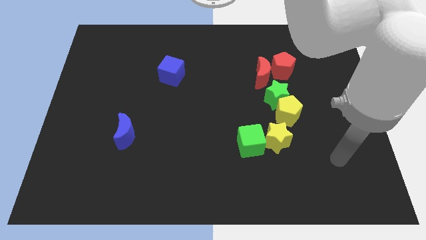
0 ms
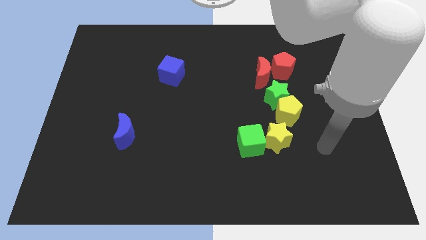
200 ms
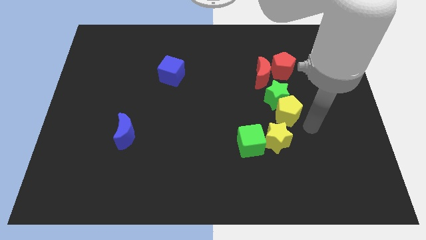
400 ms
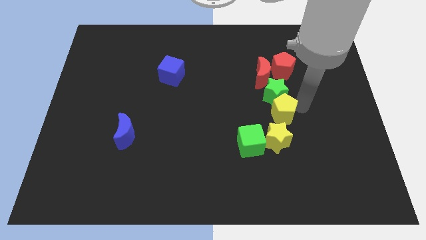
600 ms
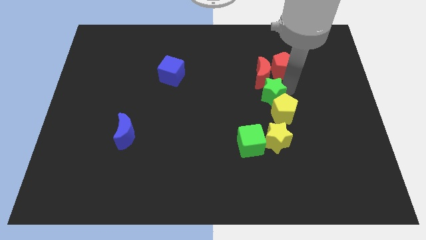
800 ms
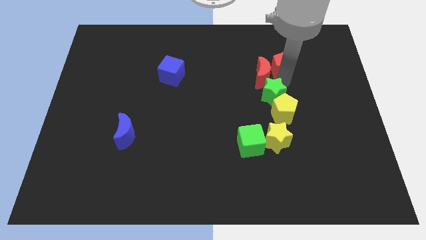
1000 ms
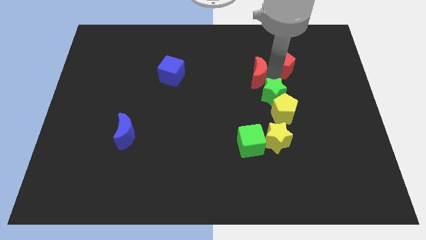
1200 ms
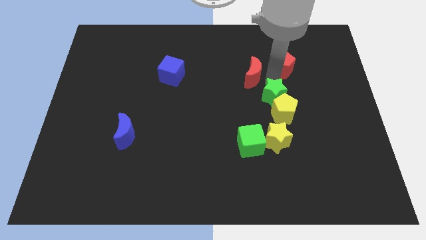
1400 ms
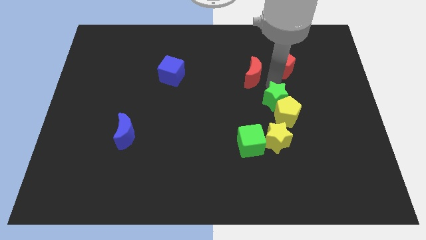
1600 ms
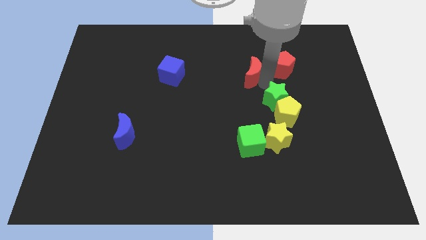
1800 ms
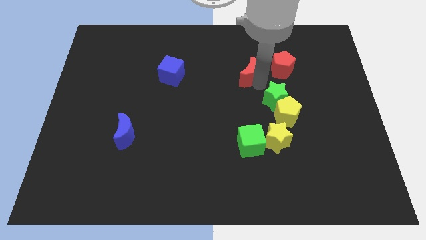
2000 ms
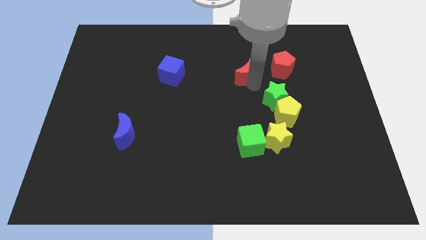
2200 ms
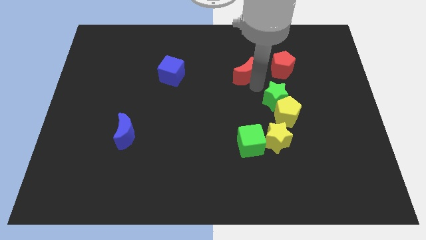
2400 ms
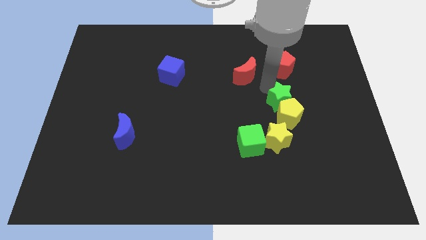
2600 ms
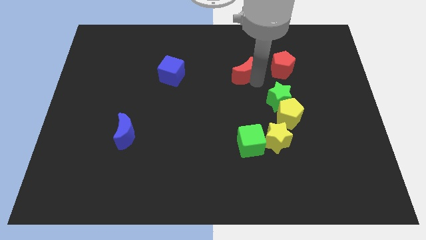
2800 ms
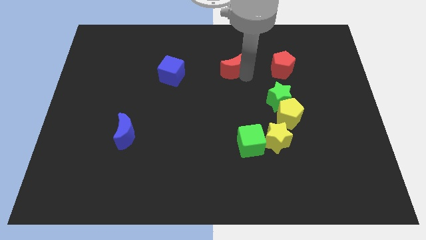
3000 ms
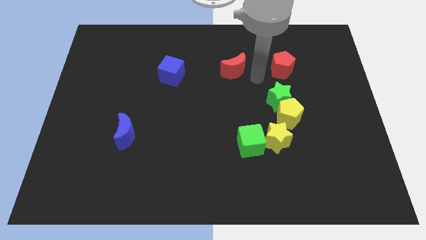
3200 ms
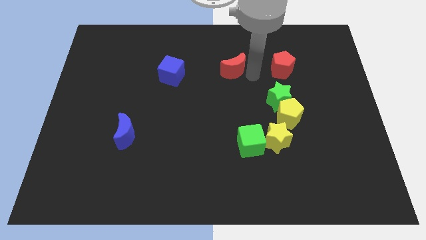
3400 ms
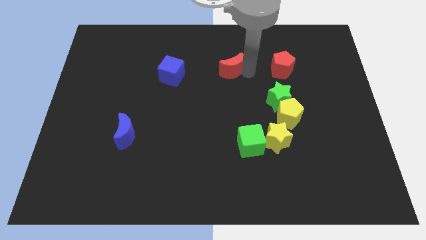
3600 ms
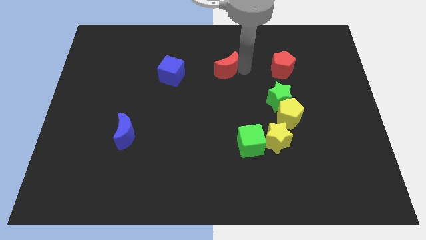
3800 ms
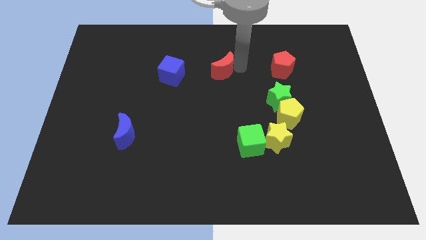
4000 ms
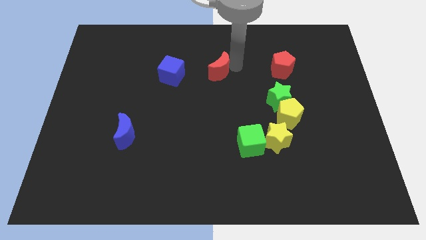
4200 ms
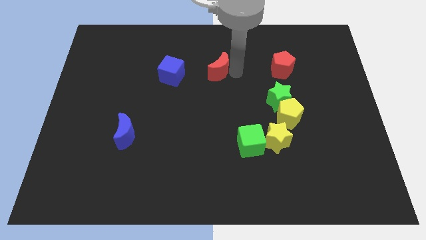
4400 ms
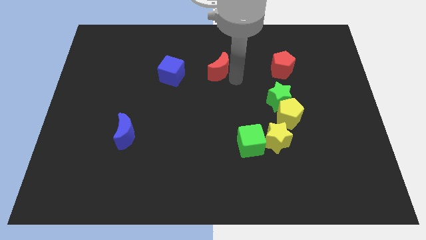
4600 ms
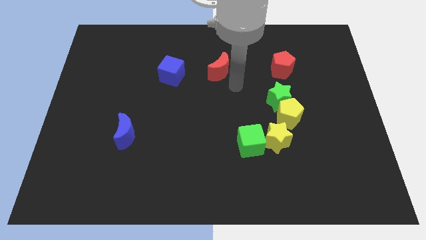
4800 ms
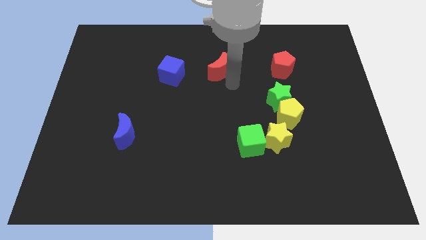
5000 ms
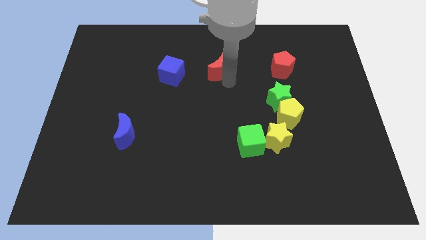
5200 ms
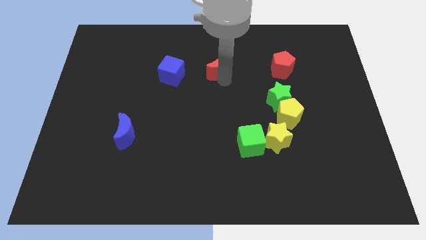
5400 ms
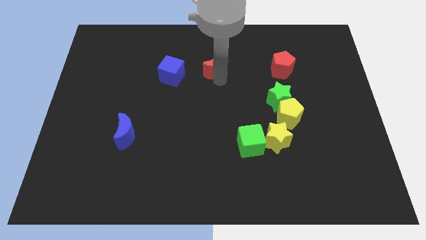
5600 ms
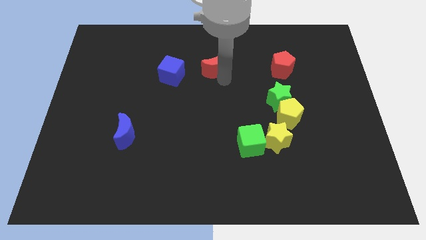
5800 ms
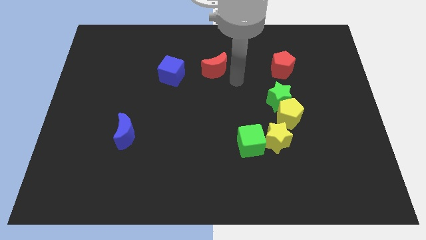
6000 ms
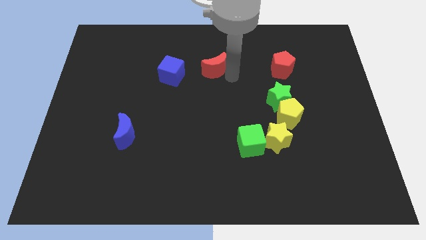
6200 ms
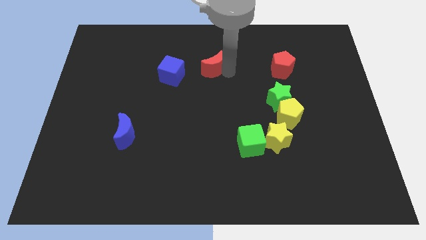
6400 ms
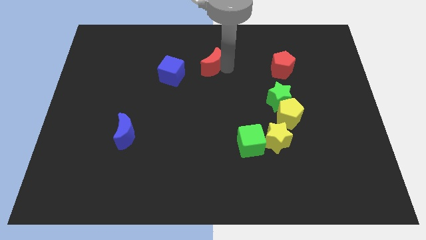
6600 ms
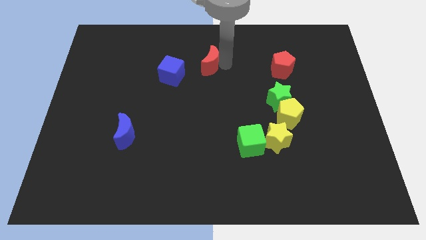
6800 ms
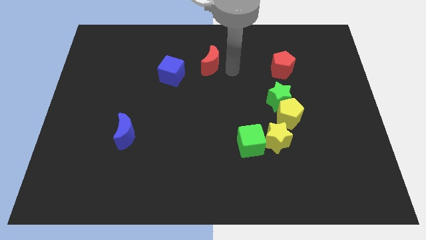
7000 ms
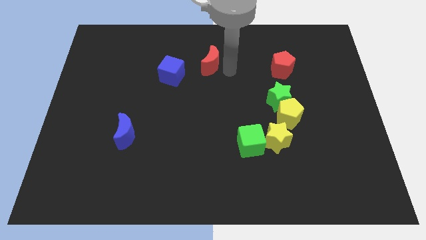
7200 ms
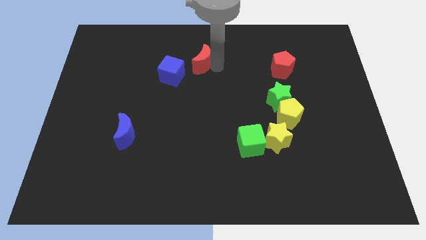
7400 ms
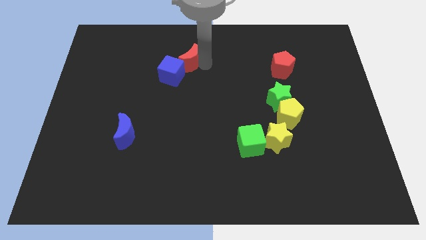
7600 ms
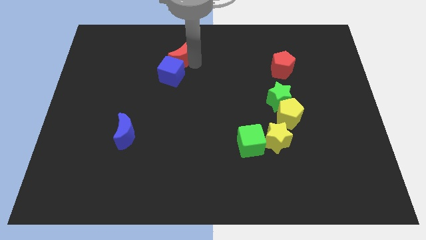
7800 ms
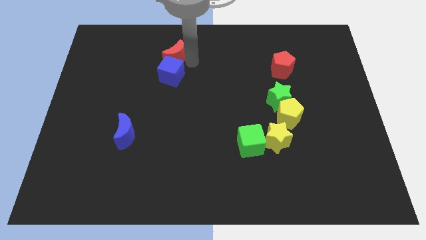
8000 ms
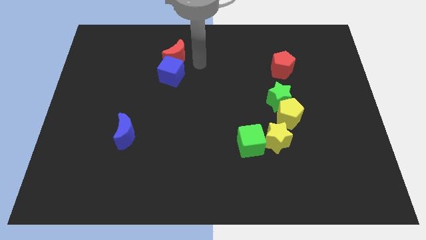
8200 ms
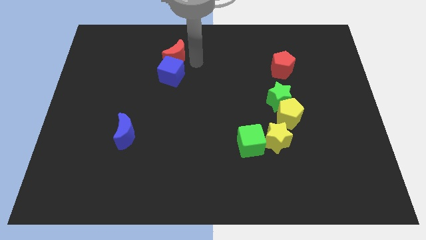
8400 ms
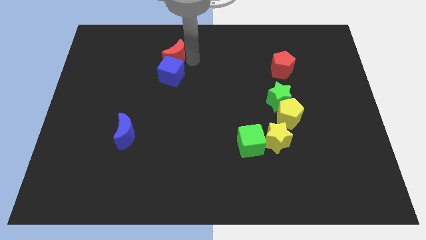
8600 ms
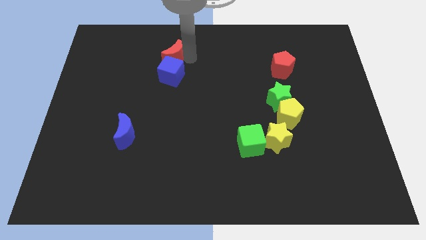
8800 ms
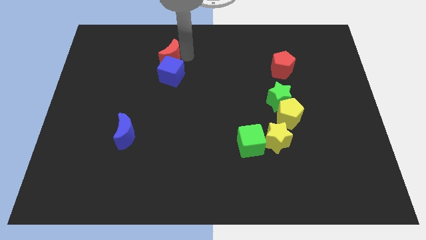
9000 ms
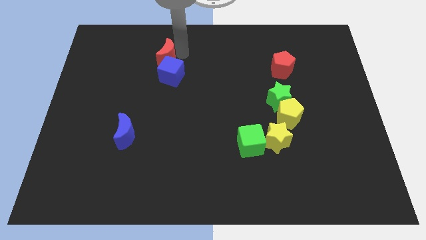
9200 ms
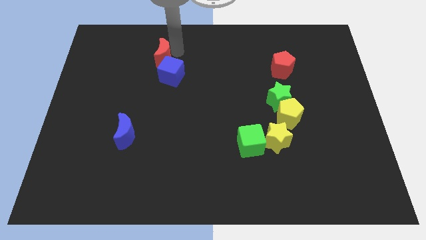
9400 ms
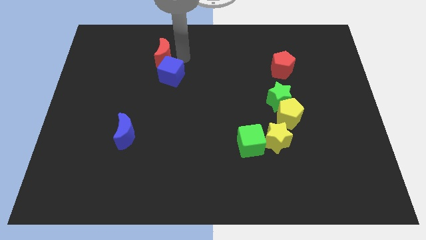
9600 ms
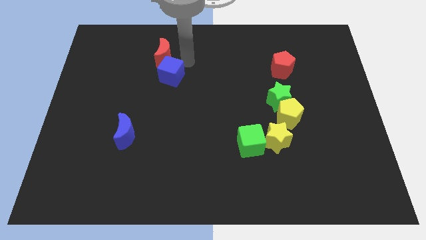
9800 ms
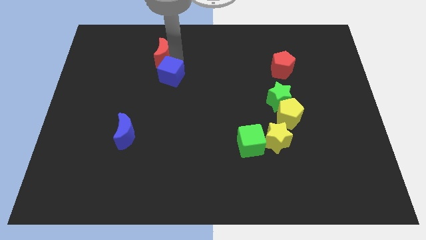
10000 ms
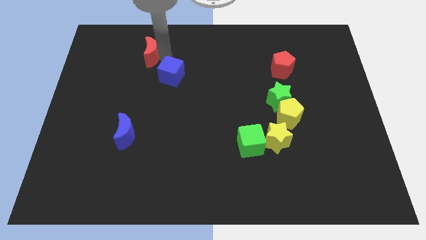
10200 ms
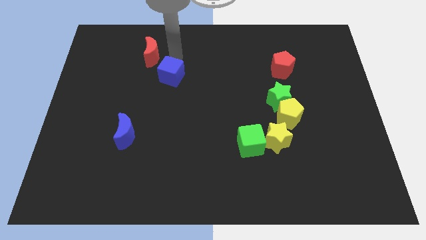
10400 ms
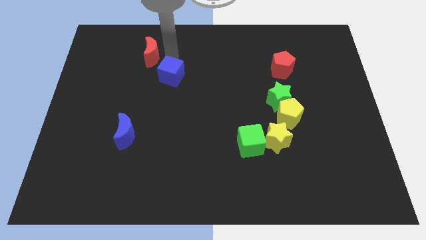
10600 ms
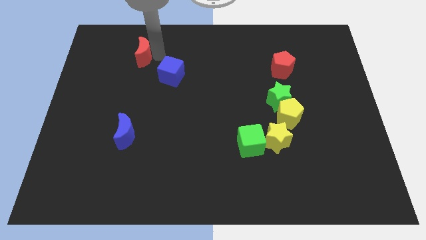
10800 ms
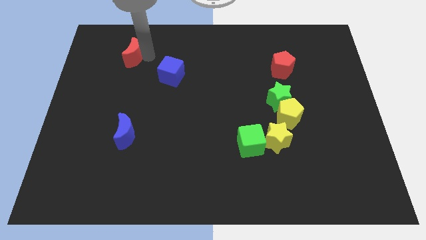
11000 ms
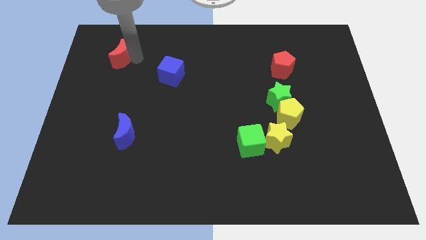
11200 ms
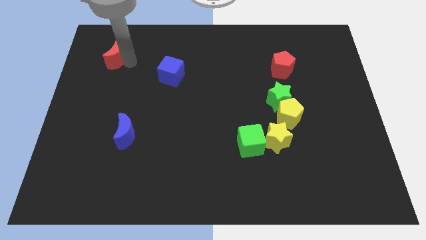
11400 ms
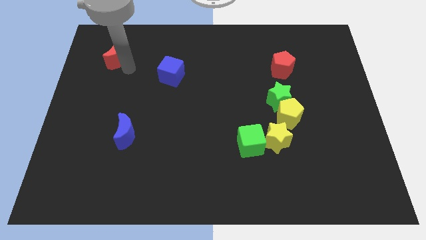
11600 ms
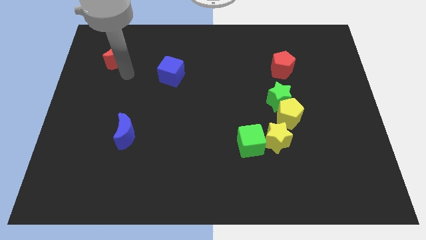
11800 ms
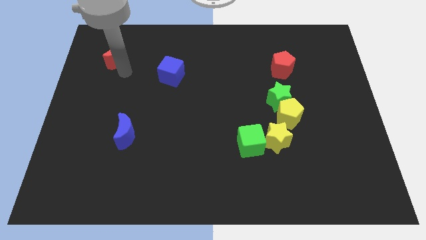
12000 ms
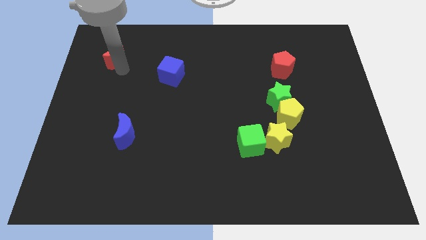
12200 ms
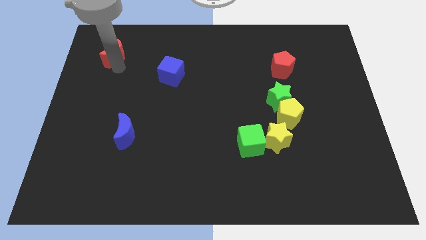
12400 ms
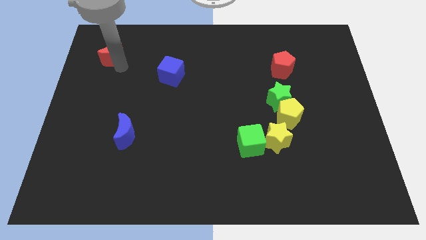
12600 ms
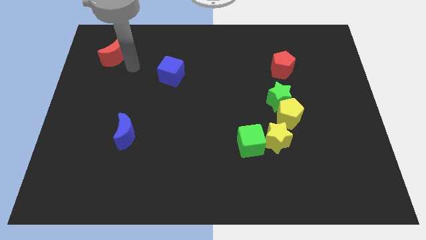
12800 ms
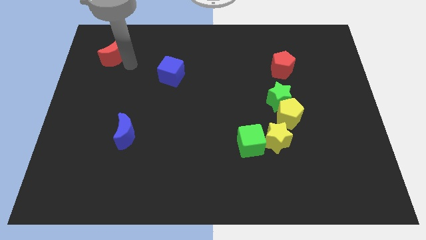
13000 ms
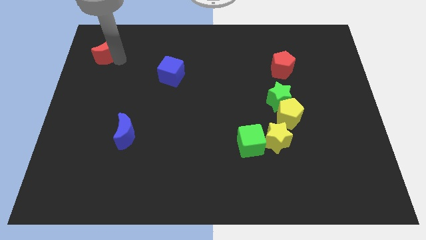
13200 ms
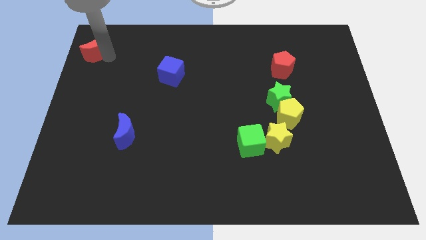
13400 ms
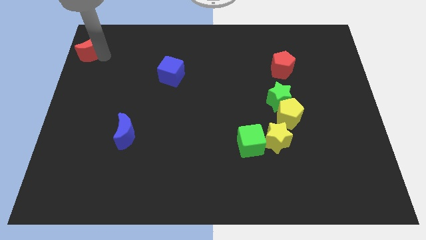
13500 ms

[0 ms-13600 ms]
slide the red moon to the top left
